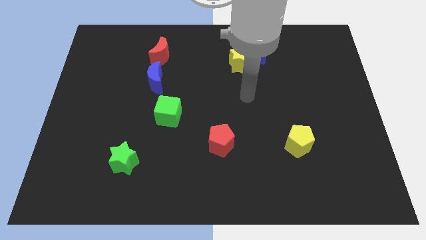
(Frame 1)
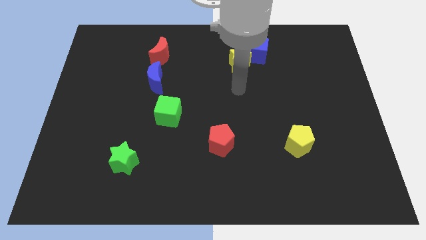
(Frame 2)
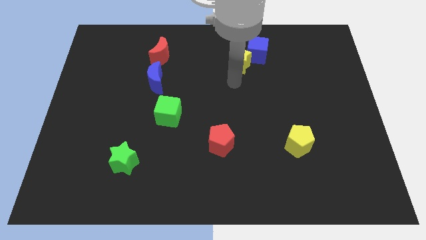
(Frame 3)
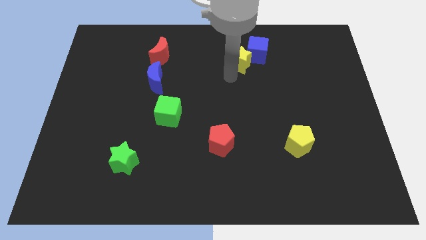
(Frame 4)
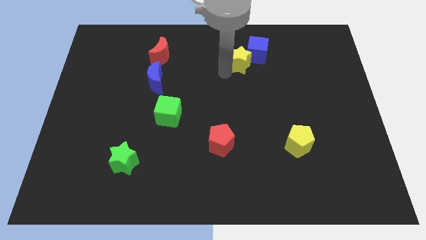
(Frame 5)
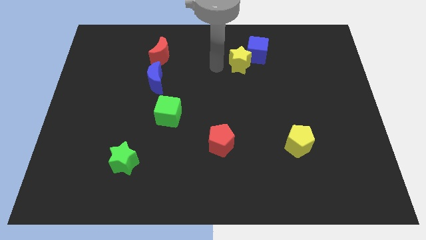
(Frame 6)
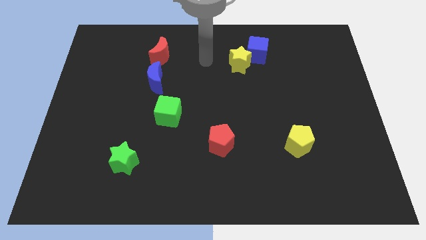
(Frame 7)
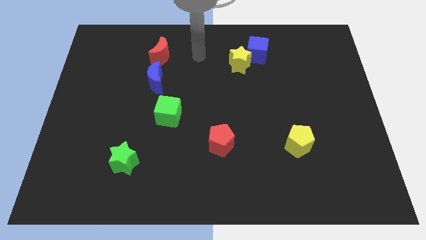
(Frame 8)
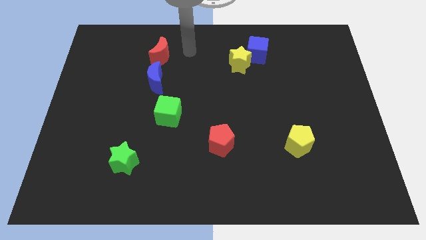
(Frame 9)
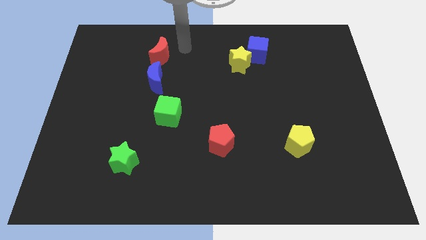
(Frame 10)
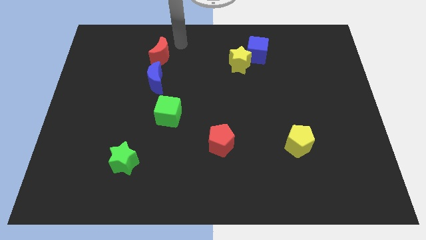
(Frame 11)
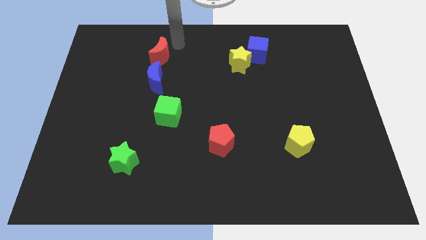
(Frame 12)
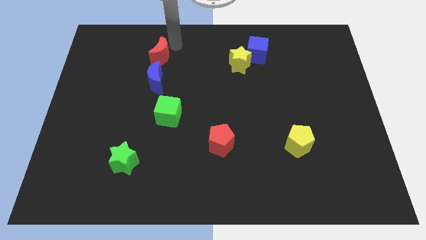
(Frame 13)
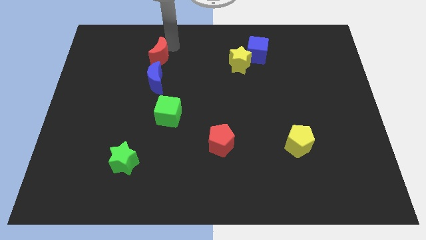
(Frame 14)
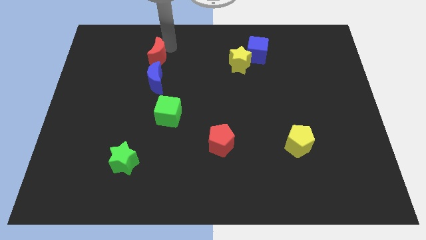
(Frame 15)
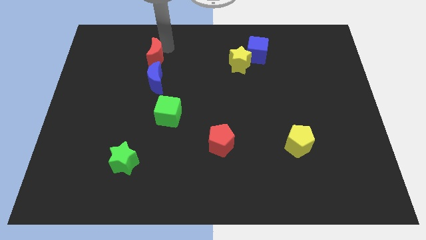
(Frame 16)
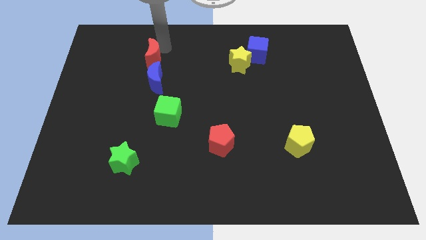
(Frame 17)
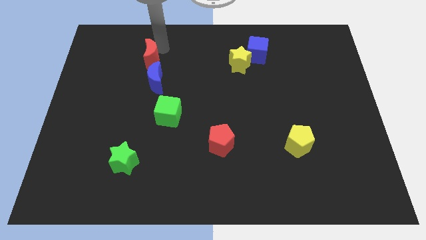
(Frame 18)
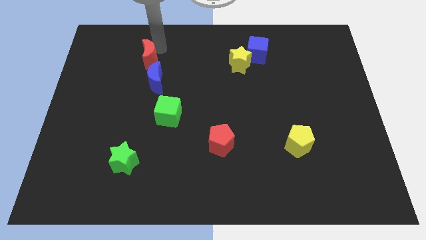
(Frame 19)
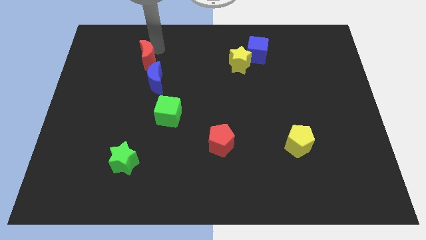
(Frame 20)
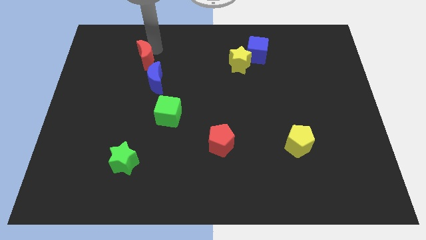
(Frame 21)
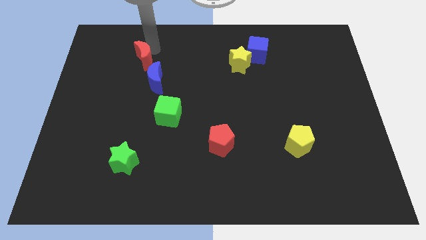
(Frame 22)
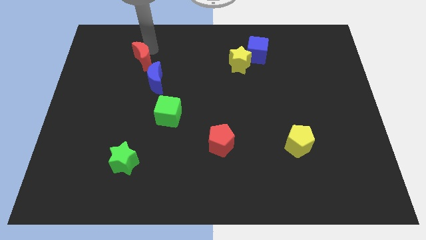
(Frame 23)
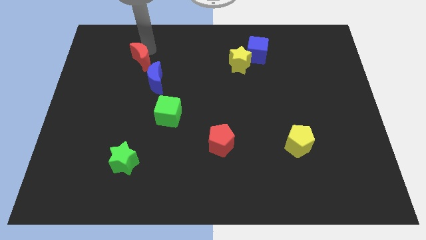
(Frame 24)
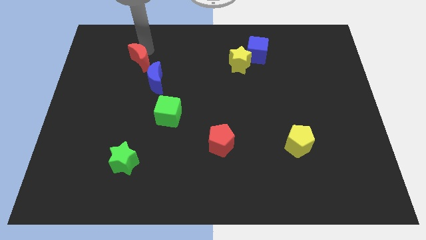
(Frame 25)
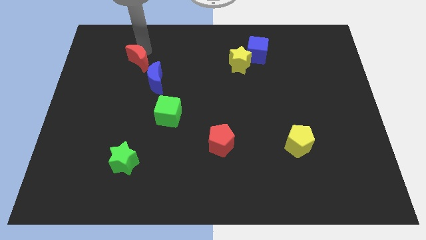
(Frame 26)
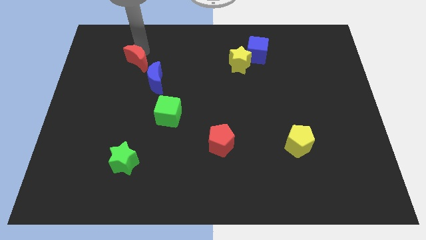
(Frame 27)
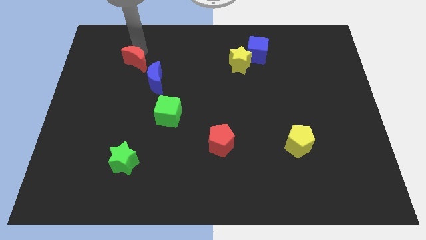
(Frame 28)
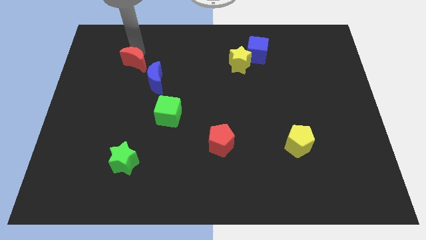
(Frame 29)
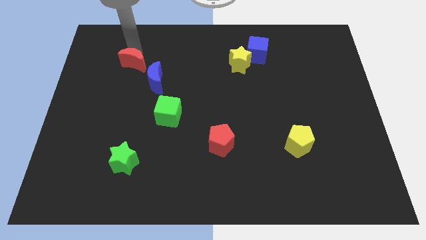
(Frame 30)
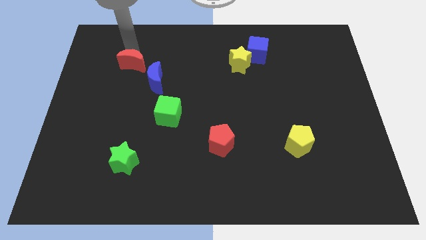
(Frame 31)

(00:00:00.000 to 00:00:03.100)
slide the red moon a little bit down and left

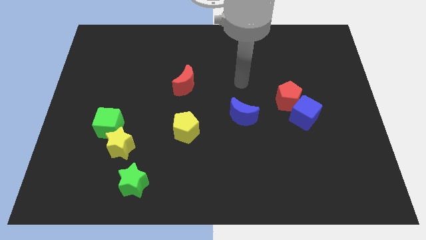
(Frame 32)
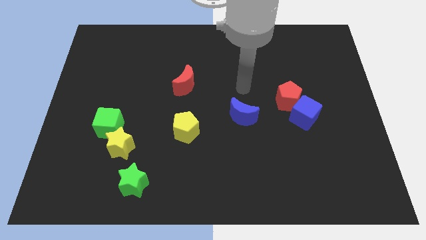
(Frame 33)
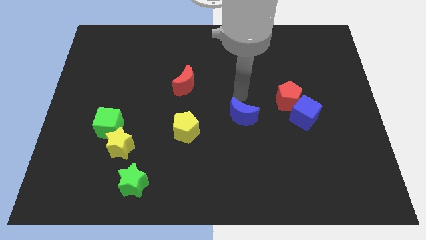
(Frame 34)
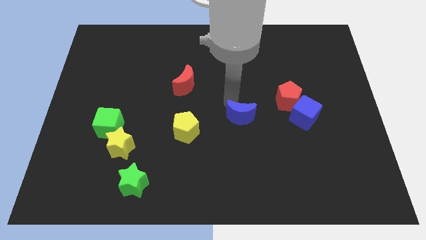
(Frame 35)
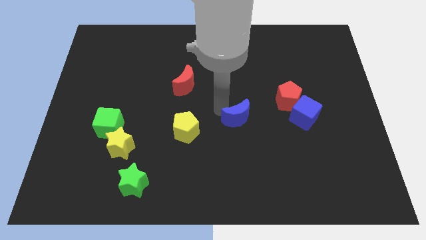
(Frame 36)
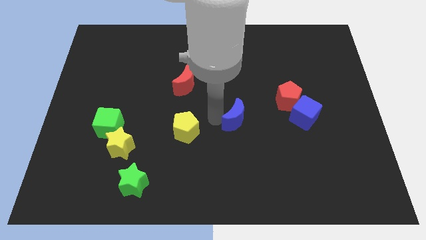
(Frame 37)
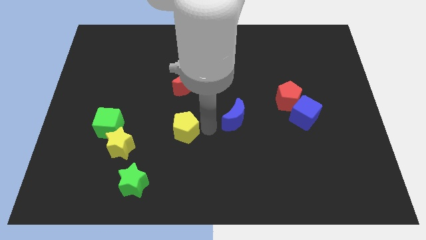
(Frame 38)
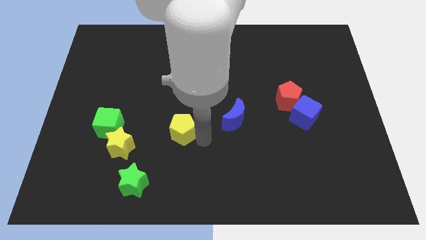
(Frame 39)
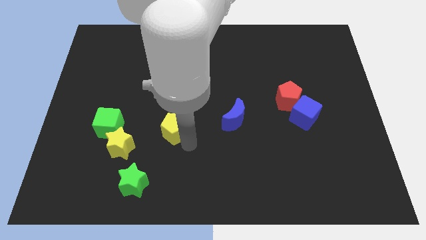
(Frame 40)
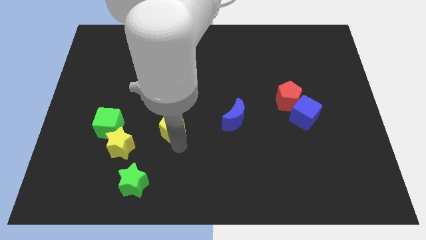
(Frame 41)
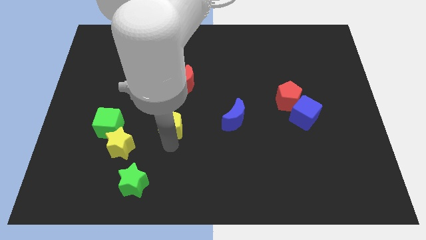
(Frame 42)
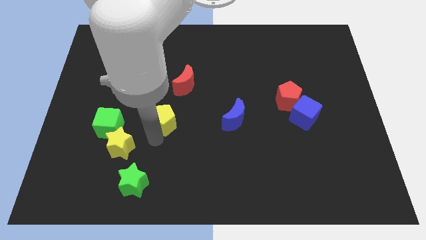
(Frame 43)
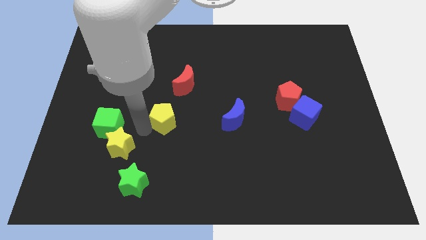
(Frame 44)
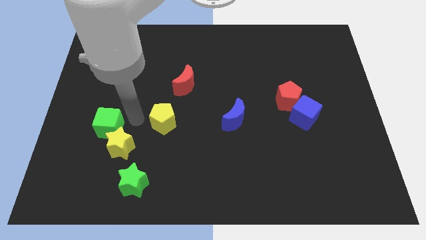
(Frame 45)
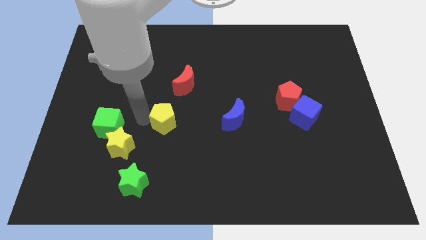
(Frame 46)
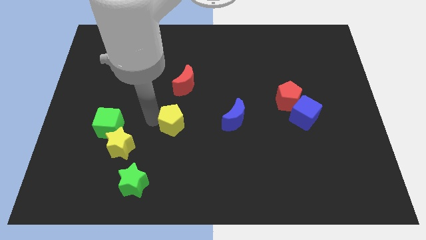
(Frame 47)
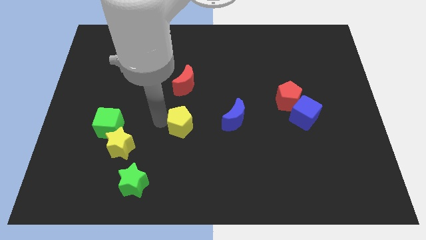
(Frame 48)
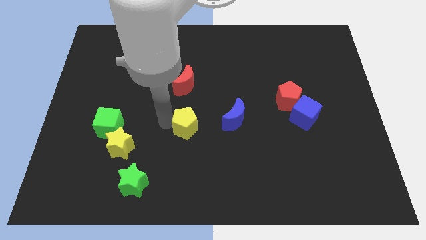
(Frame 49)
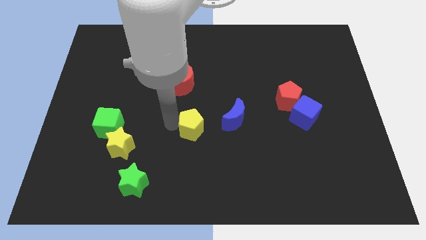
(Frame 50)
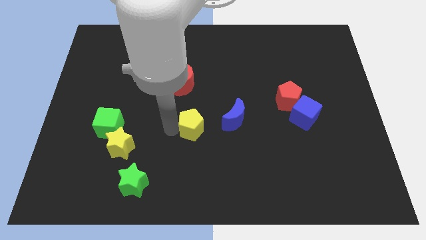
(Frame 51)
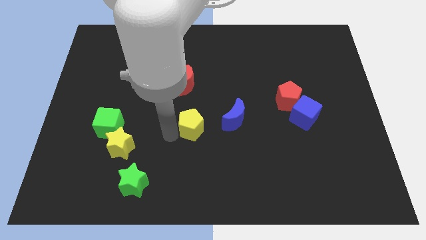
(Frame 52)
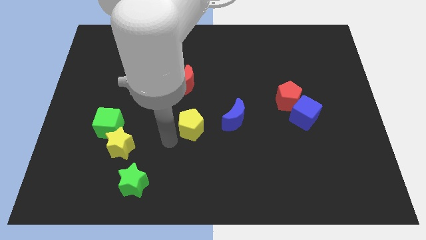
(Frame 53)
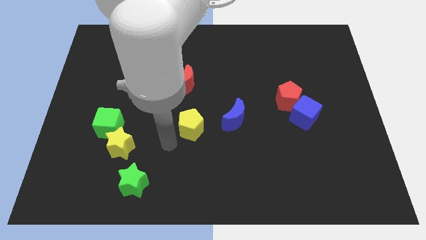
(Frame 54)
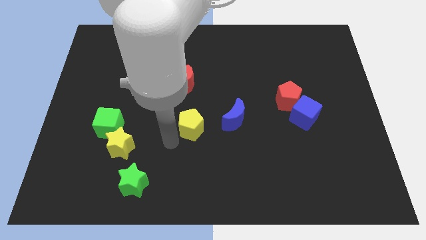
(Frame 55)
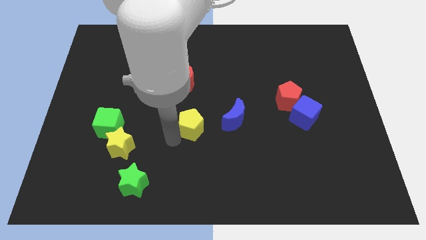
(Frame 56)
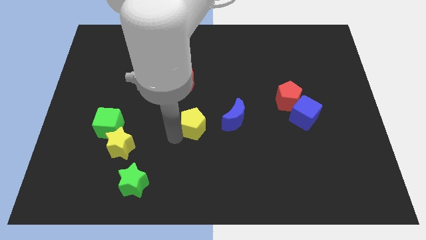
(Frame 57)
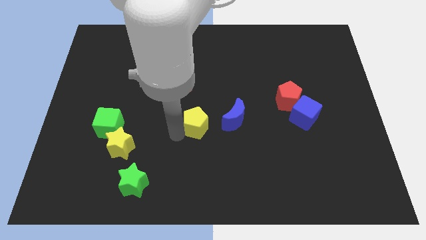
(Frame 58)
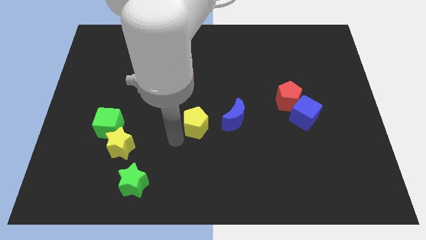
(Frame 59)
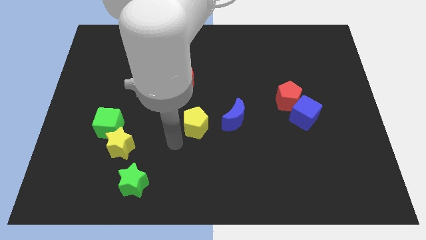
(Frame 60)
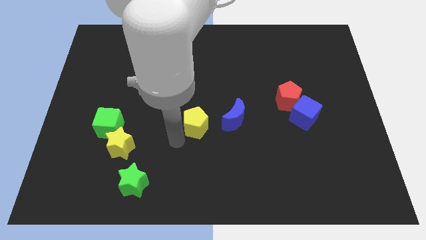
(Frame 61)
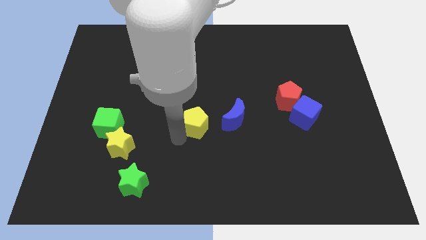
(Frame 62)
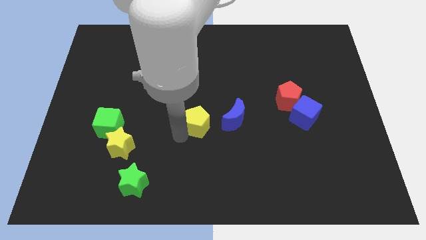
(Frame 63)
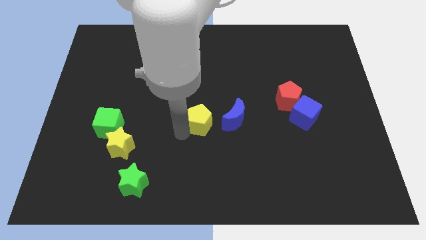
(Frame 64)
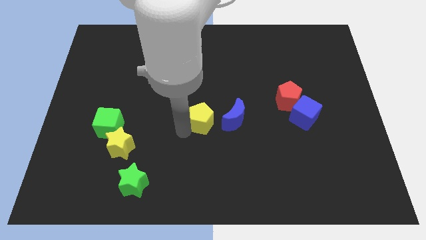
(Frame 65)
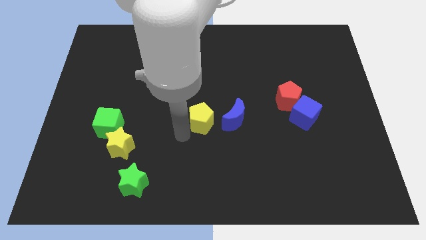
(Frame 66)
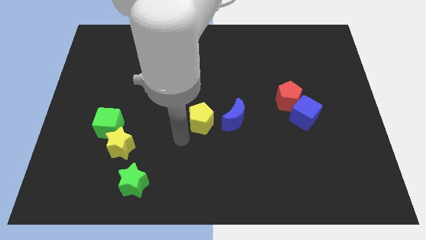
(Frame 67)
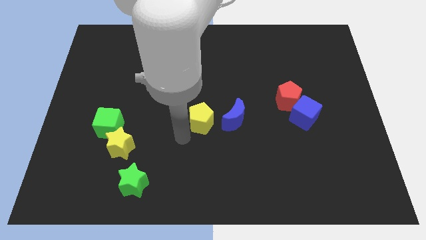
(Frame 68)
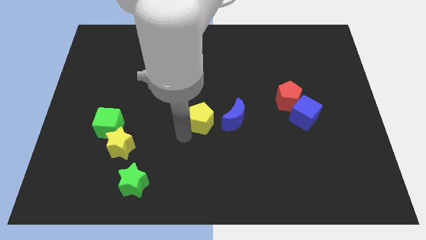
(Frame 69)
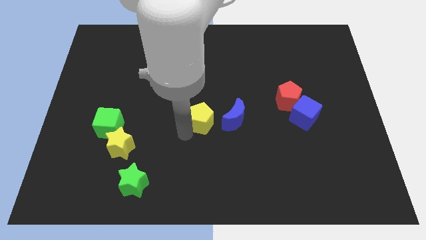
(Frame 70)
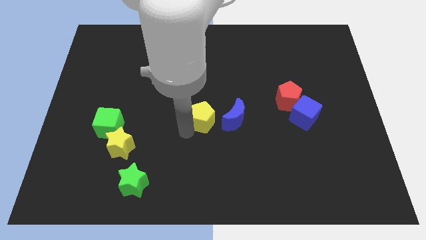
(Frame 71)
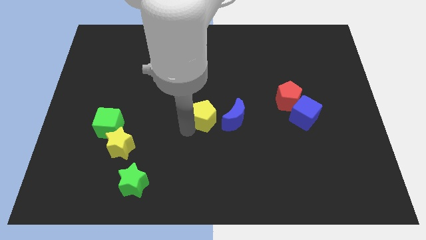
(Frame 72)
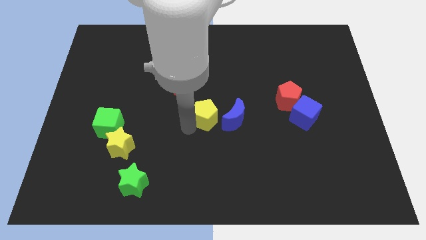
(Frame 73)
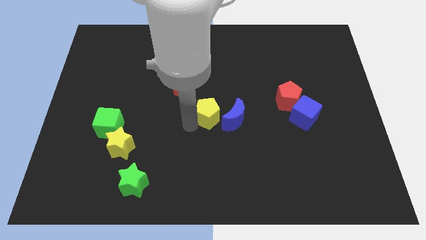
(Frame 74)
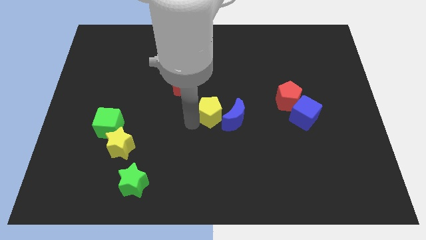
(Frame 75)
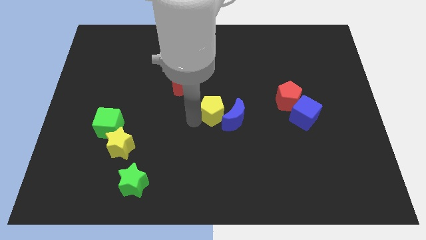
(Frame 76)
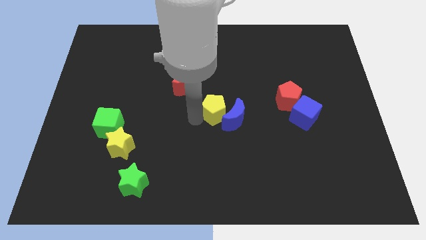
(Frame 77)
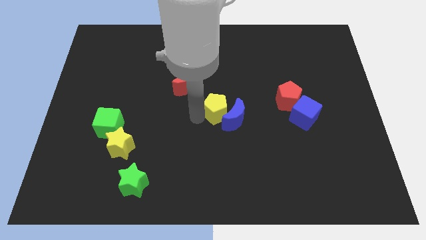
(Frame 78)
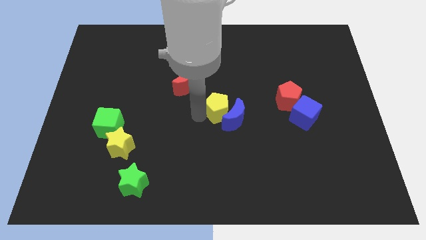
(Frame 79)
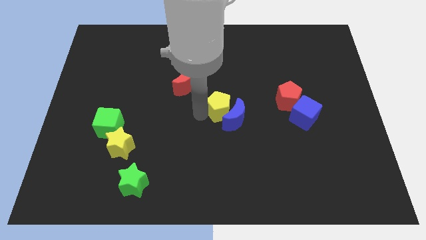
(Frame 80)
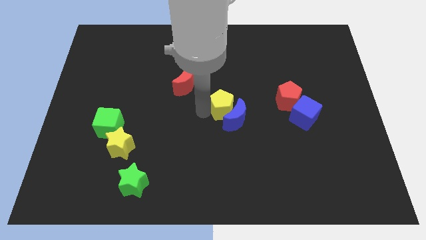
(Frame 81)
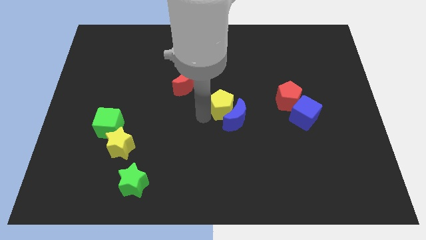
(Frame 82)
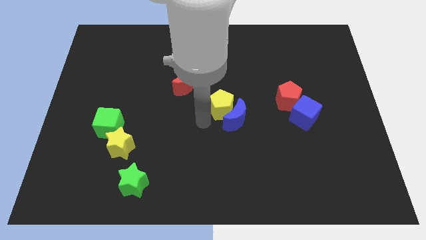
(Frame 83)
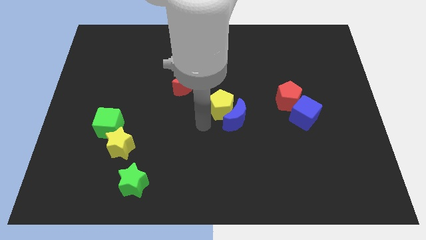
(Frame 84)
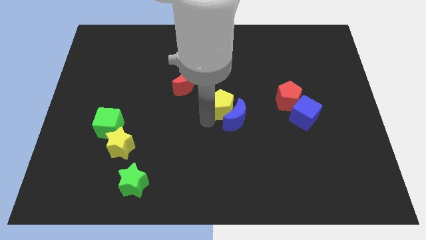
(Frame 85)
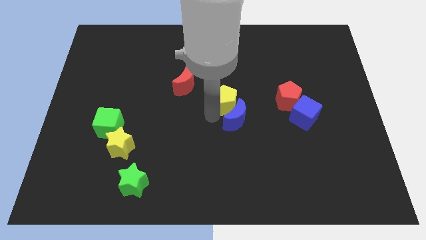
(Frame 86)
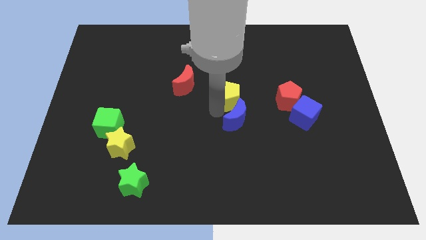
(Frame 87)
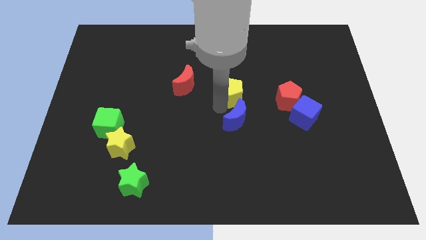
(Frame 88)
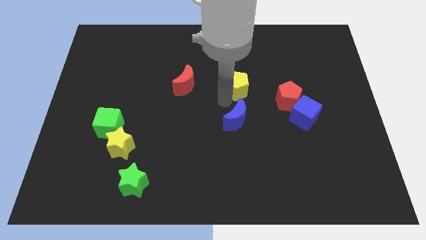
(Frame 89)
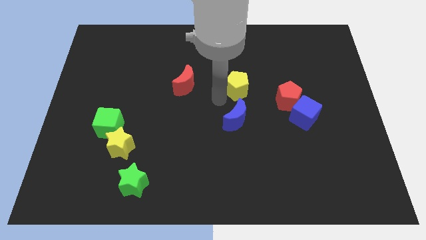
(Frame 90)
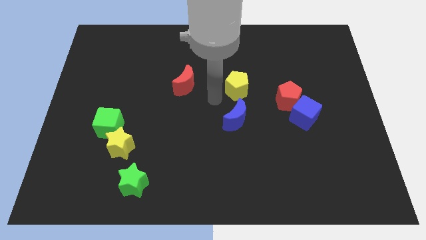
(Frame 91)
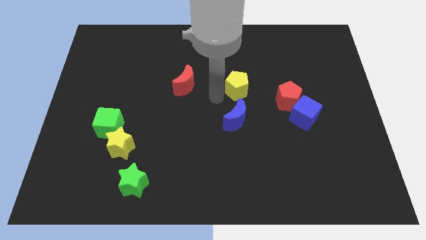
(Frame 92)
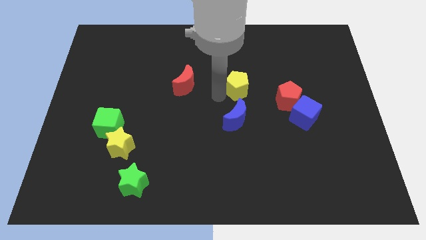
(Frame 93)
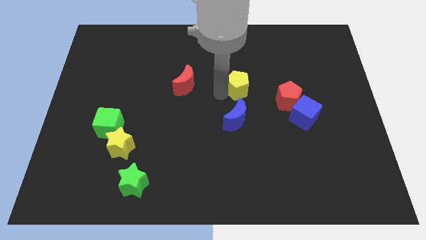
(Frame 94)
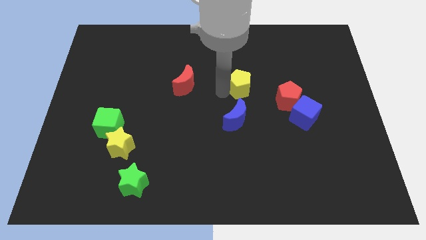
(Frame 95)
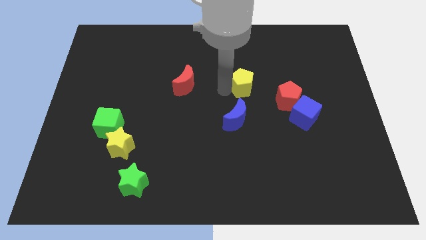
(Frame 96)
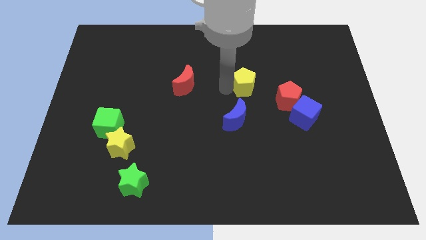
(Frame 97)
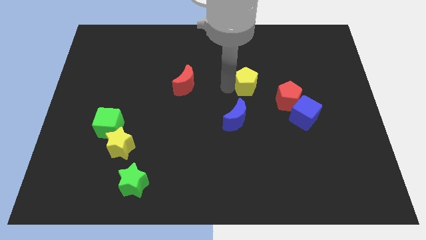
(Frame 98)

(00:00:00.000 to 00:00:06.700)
move the yellow pentagon diagonally upwards and to the right
